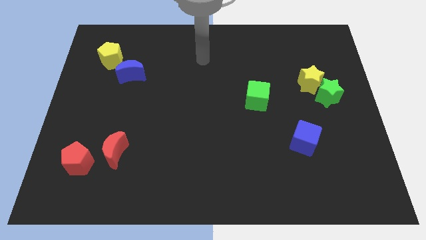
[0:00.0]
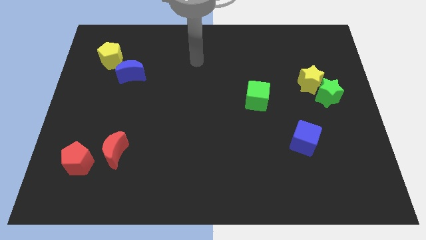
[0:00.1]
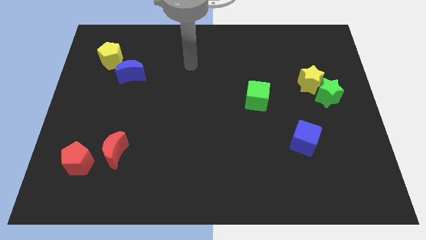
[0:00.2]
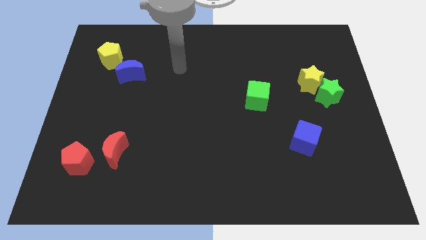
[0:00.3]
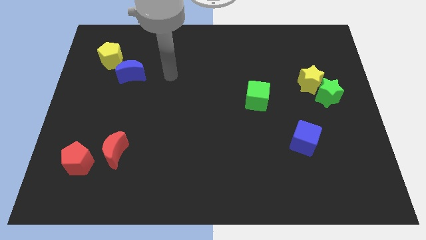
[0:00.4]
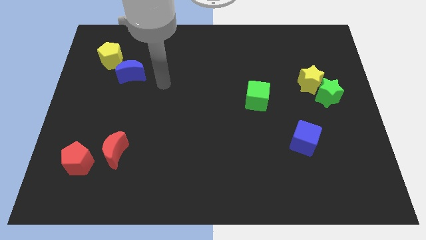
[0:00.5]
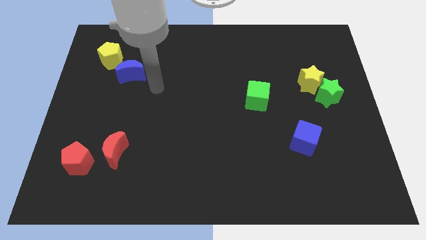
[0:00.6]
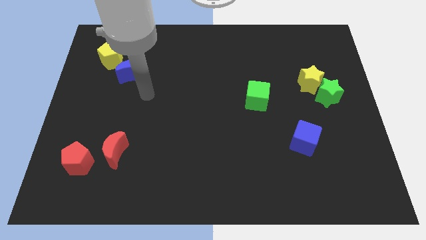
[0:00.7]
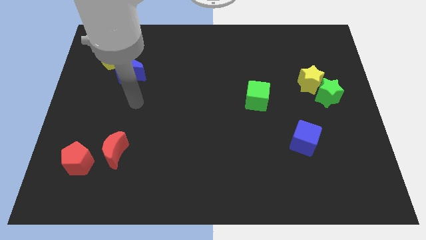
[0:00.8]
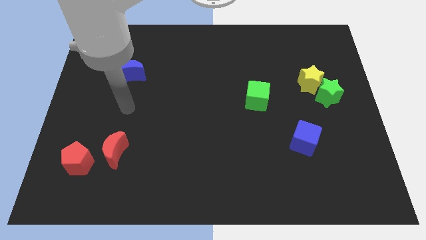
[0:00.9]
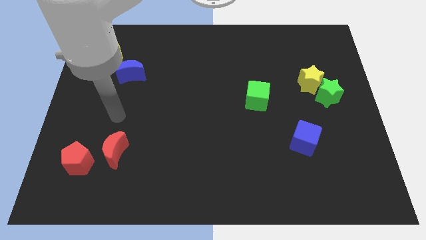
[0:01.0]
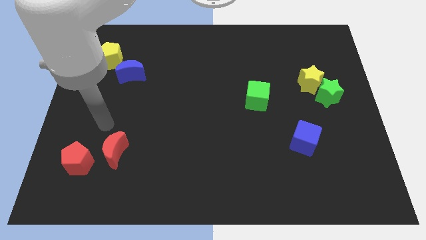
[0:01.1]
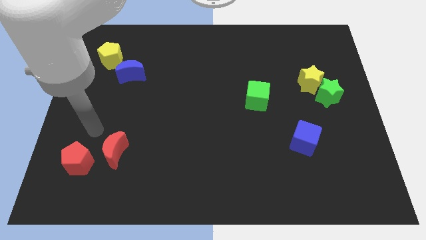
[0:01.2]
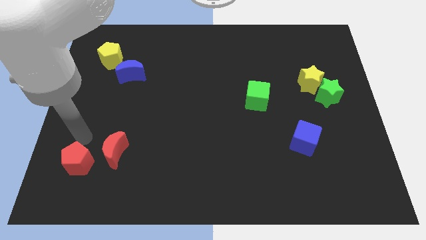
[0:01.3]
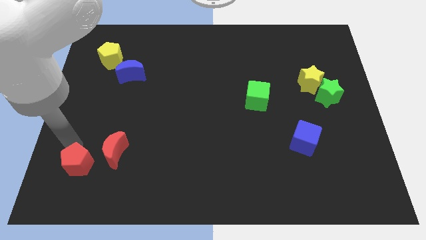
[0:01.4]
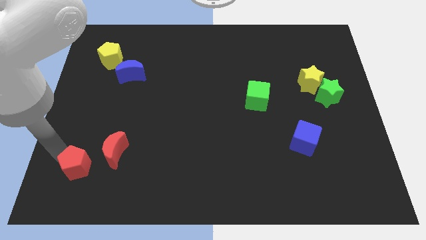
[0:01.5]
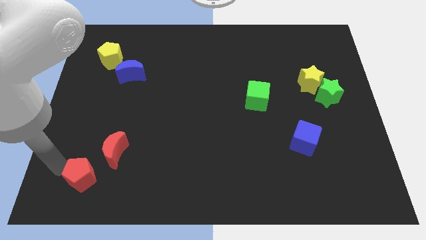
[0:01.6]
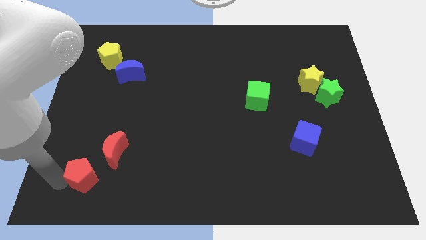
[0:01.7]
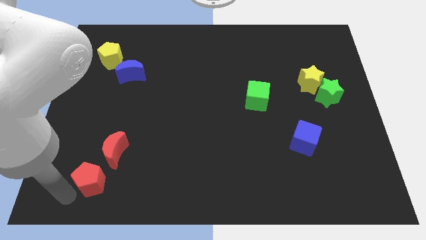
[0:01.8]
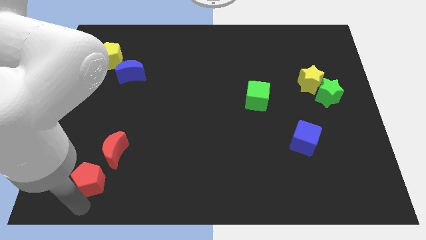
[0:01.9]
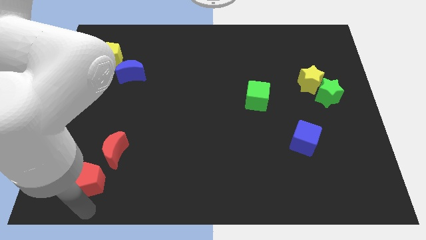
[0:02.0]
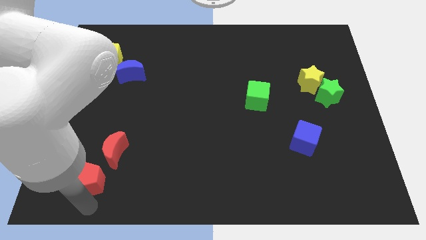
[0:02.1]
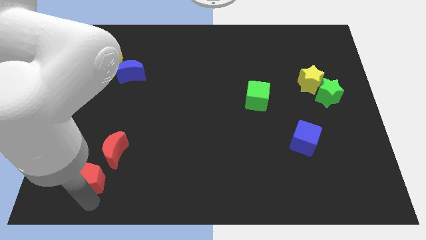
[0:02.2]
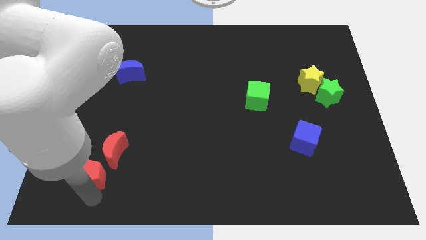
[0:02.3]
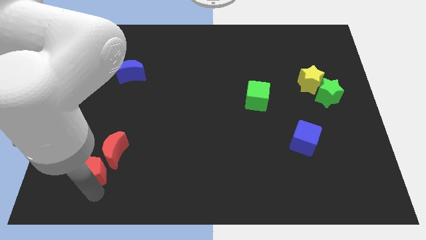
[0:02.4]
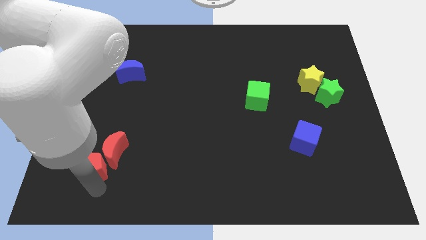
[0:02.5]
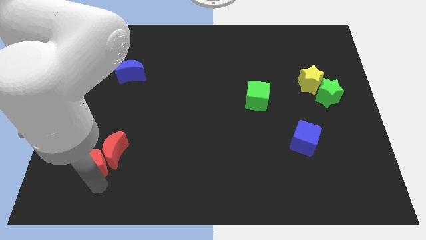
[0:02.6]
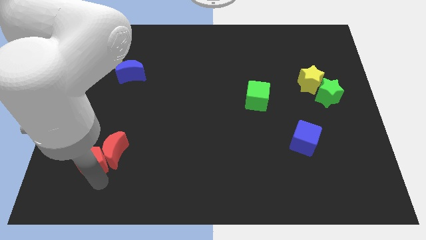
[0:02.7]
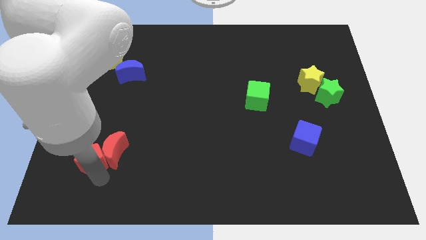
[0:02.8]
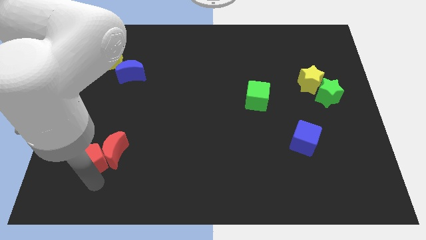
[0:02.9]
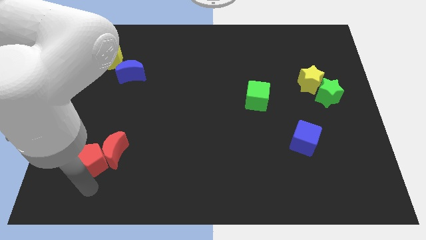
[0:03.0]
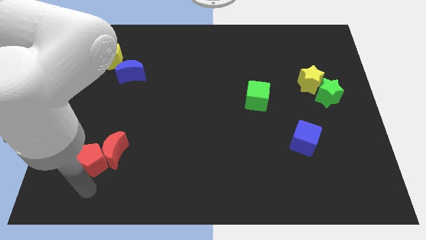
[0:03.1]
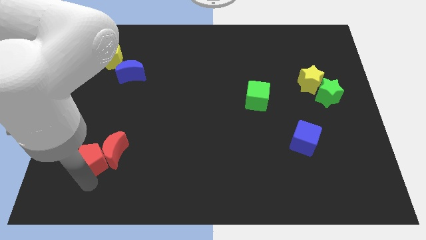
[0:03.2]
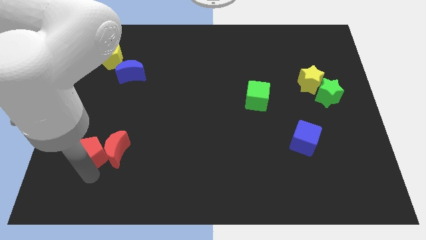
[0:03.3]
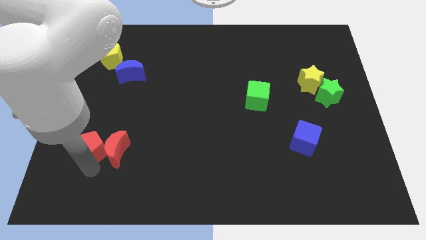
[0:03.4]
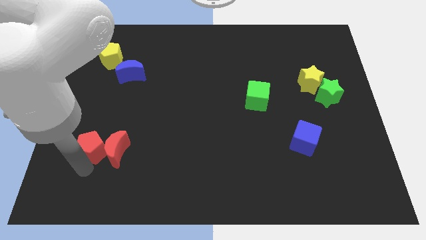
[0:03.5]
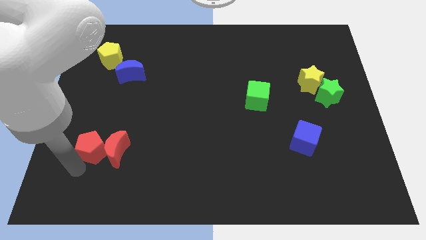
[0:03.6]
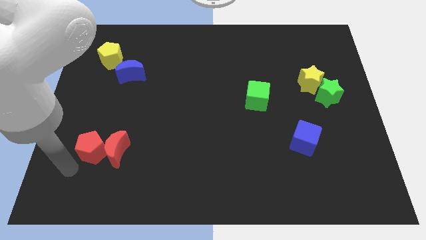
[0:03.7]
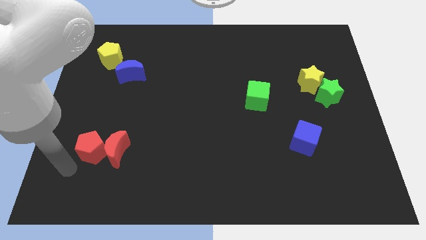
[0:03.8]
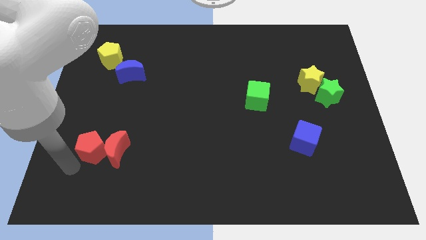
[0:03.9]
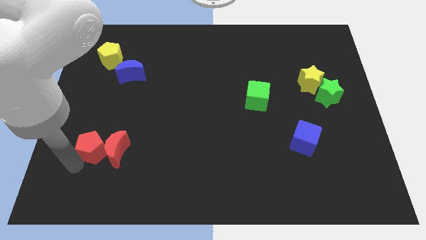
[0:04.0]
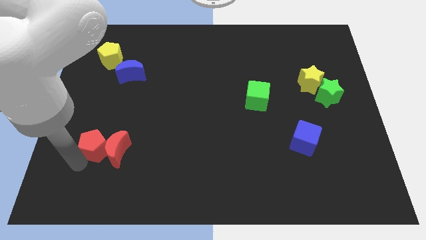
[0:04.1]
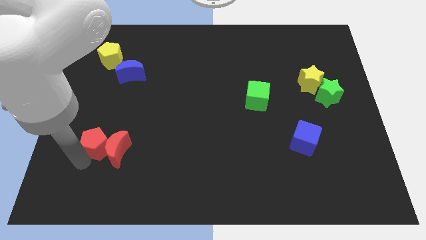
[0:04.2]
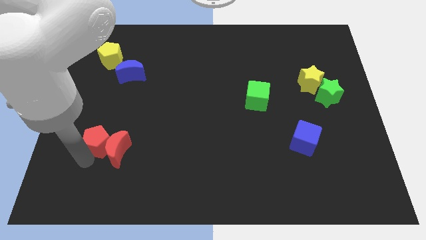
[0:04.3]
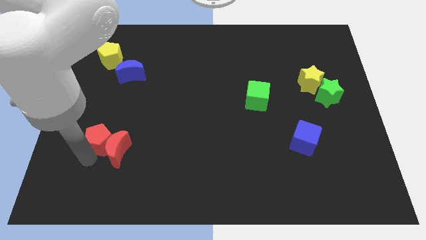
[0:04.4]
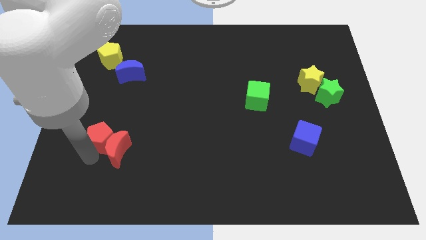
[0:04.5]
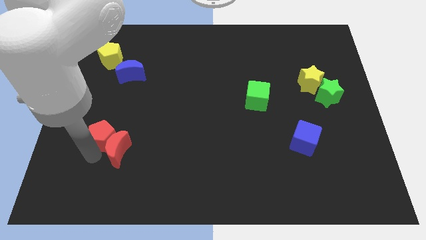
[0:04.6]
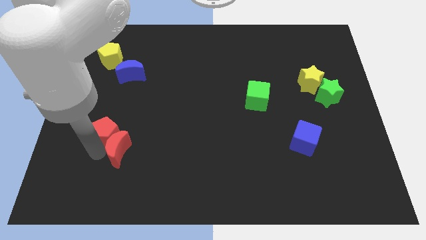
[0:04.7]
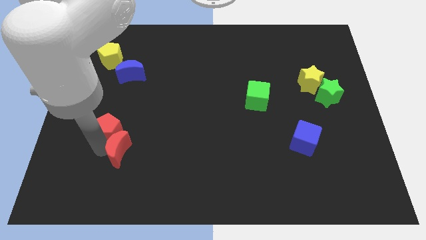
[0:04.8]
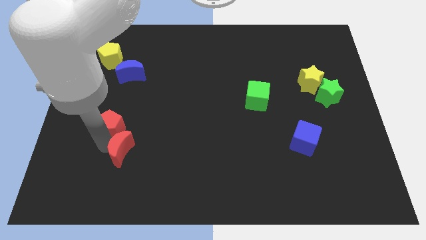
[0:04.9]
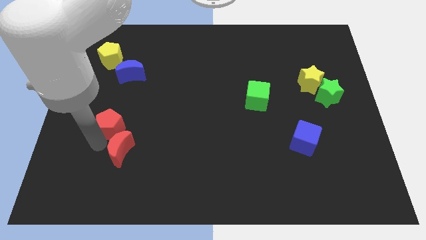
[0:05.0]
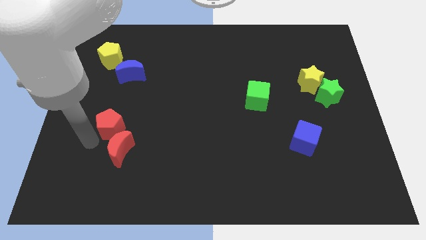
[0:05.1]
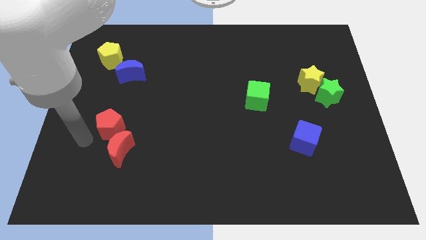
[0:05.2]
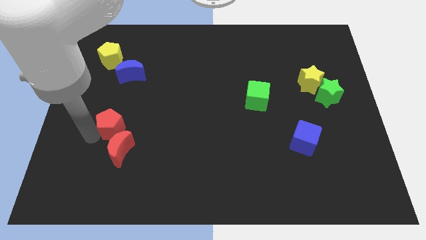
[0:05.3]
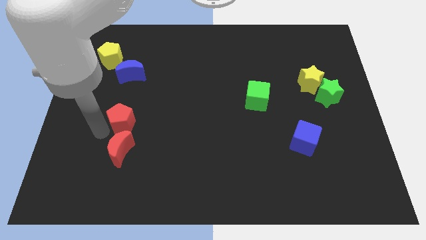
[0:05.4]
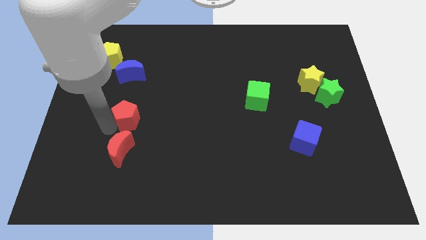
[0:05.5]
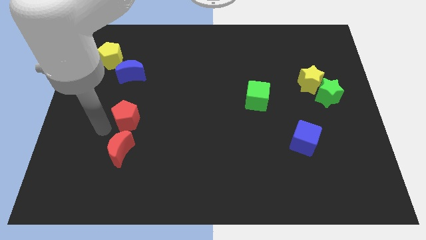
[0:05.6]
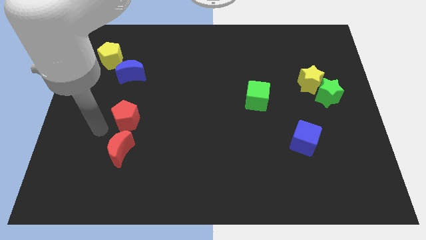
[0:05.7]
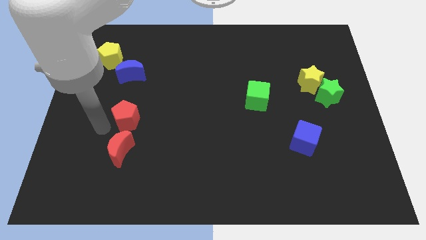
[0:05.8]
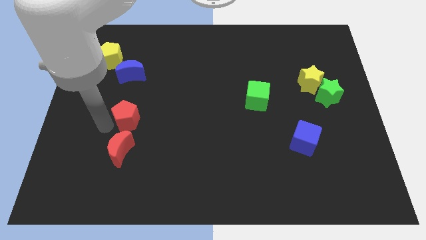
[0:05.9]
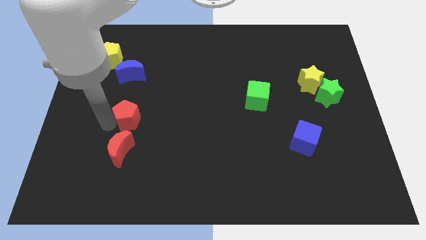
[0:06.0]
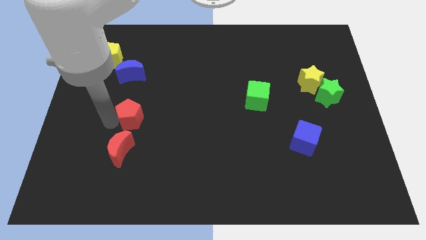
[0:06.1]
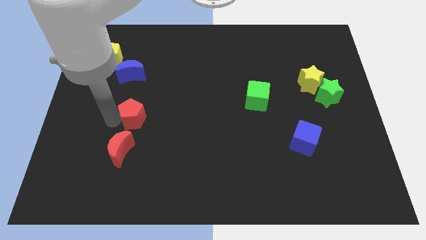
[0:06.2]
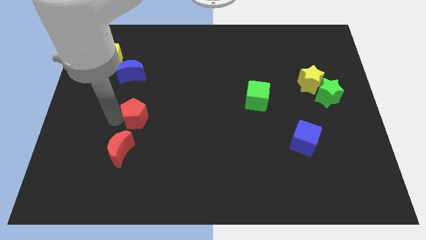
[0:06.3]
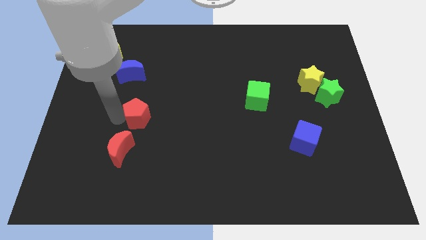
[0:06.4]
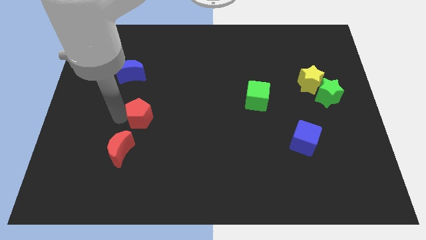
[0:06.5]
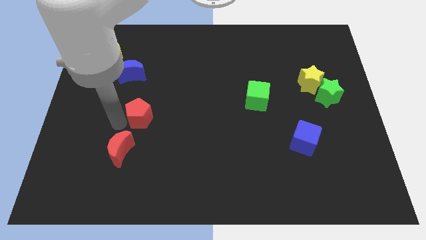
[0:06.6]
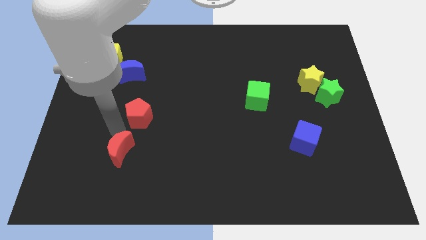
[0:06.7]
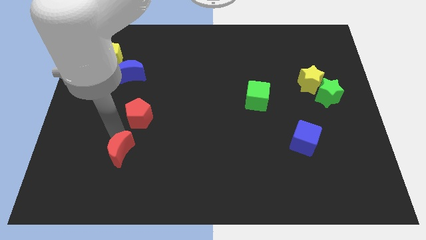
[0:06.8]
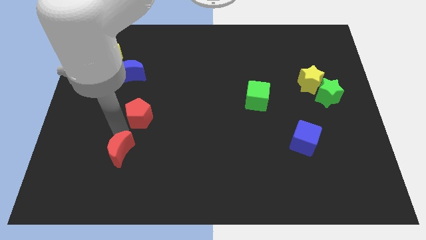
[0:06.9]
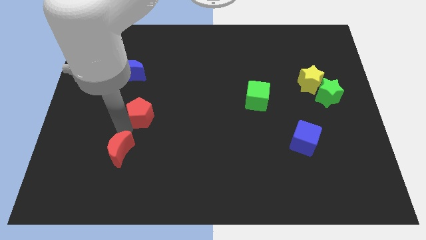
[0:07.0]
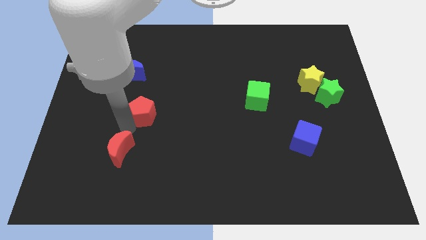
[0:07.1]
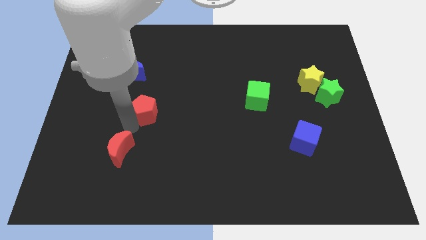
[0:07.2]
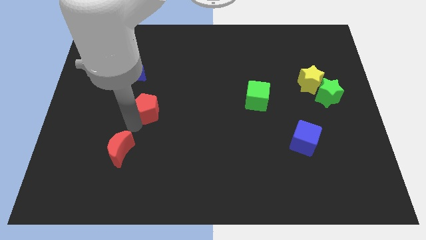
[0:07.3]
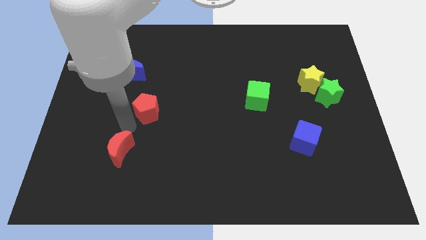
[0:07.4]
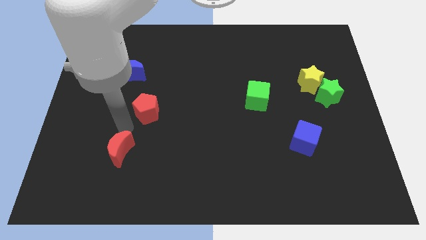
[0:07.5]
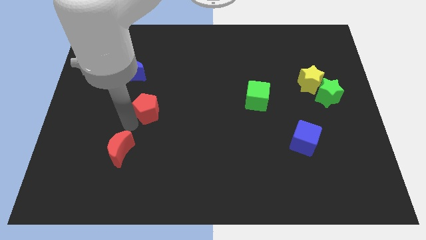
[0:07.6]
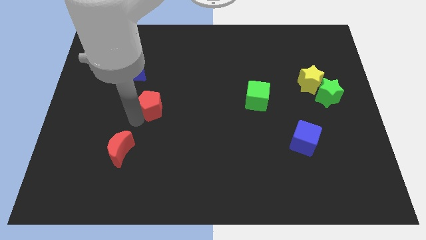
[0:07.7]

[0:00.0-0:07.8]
move the red pentagon up and right

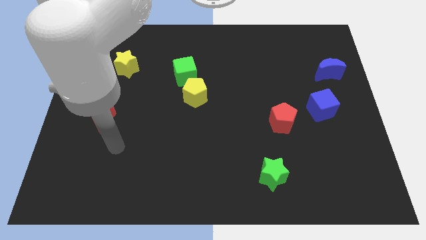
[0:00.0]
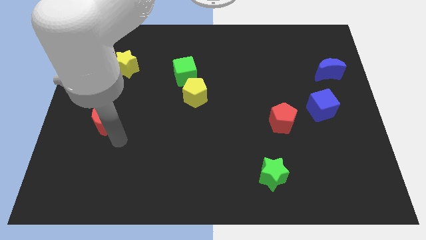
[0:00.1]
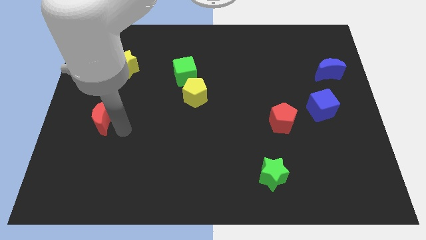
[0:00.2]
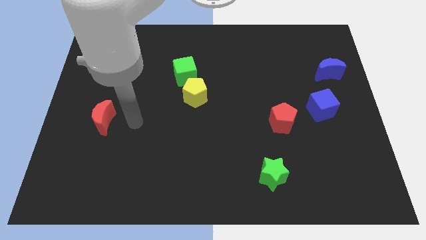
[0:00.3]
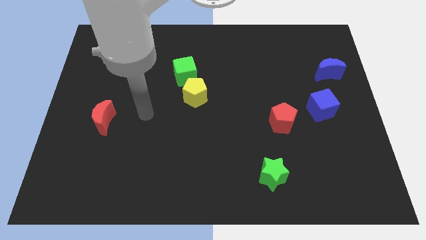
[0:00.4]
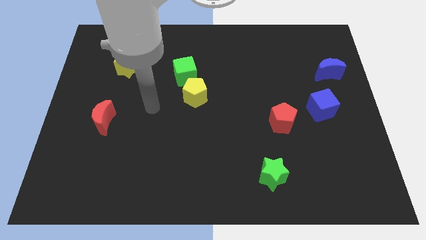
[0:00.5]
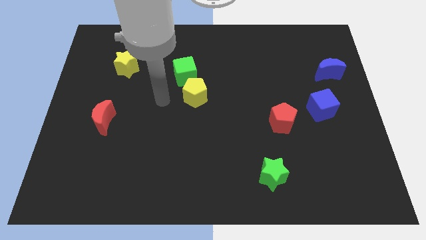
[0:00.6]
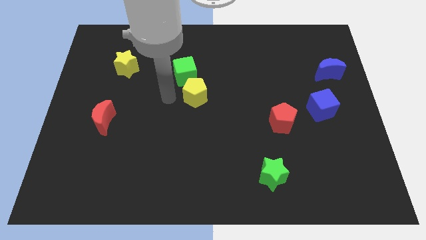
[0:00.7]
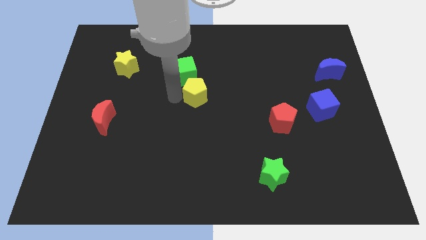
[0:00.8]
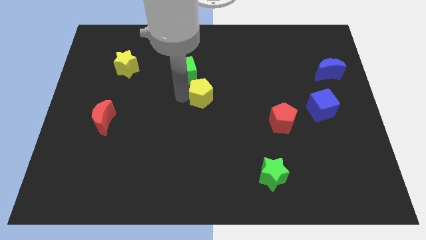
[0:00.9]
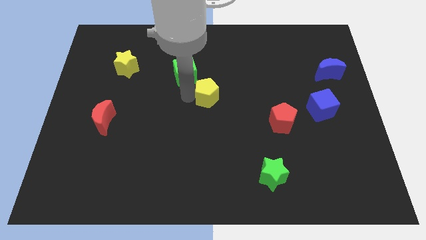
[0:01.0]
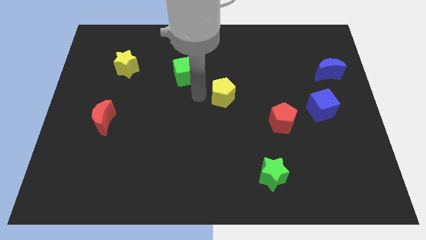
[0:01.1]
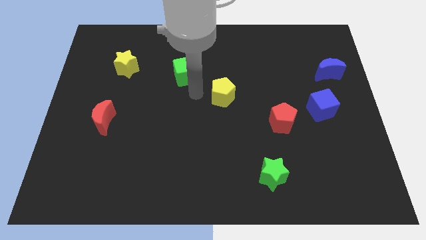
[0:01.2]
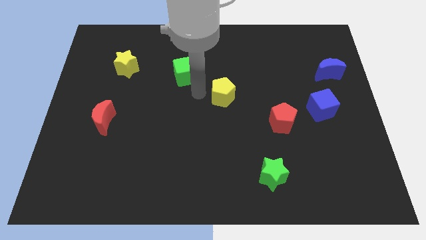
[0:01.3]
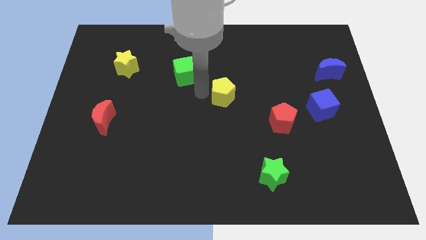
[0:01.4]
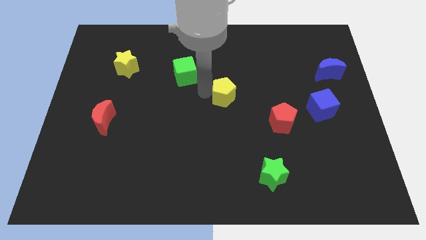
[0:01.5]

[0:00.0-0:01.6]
slightly slide the yellow pentagon to the right
